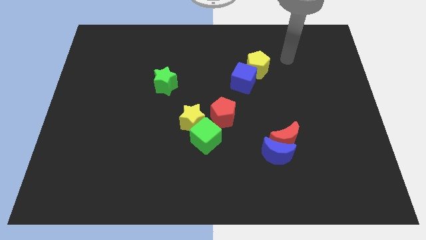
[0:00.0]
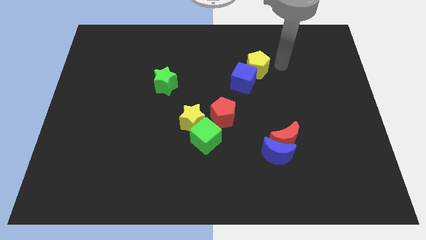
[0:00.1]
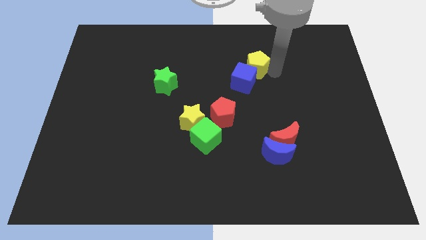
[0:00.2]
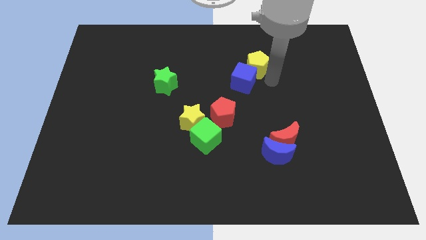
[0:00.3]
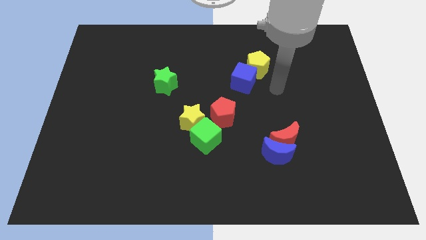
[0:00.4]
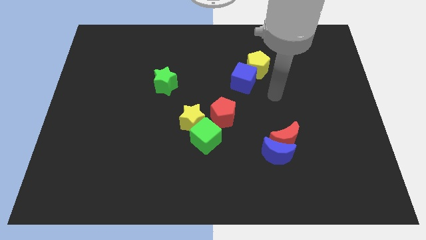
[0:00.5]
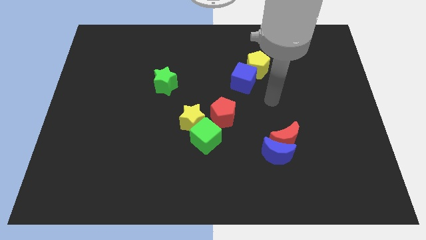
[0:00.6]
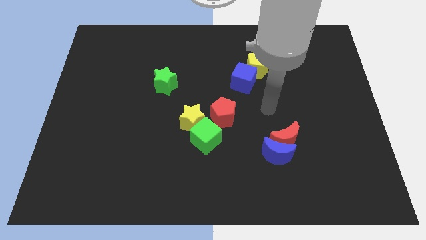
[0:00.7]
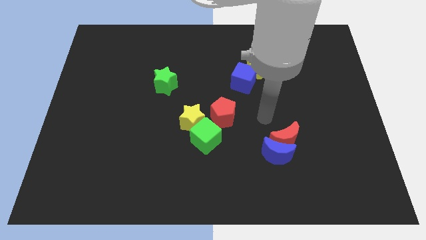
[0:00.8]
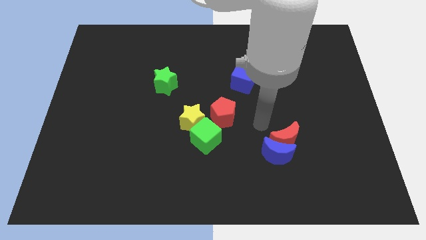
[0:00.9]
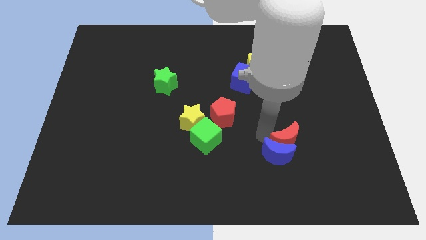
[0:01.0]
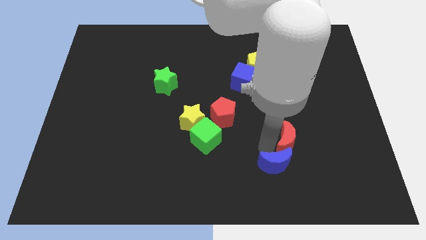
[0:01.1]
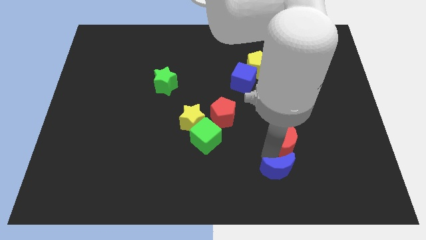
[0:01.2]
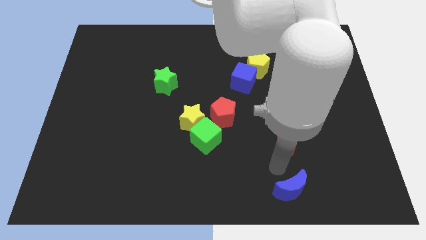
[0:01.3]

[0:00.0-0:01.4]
separate the red moon from the blue moon

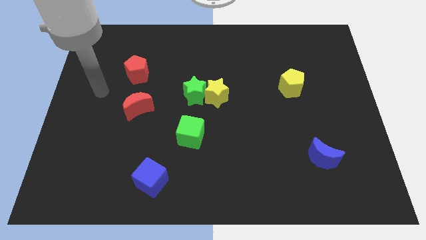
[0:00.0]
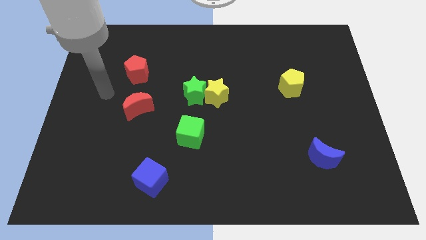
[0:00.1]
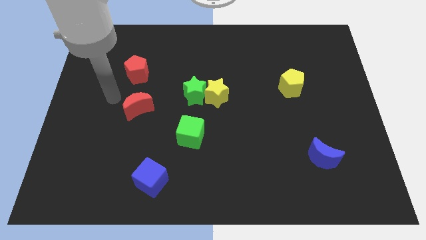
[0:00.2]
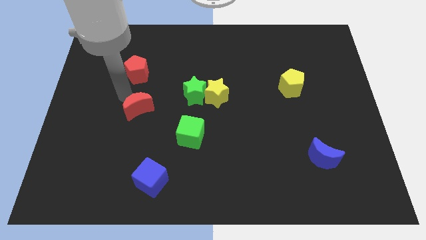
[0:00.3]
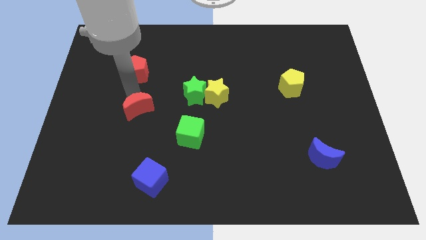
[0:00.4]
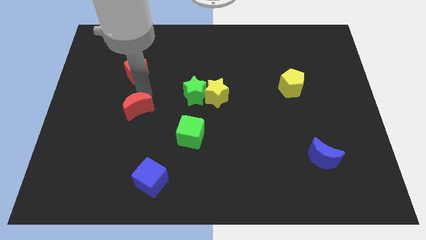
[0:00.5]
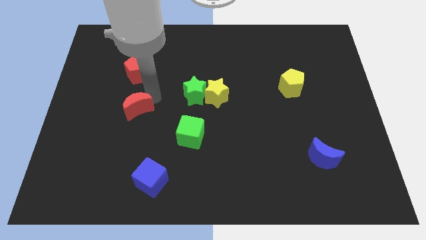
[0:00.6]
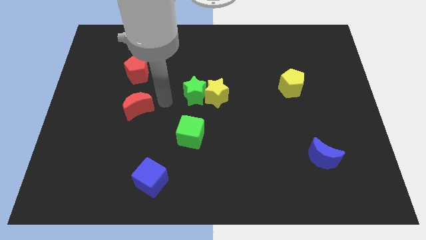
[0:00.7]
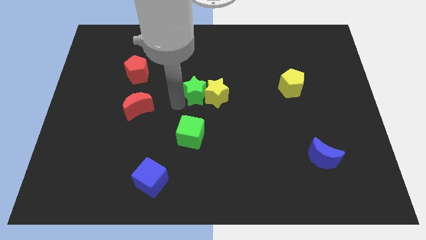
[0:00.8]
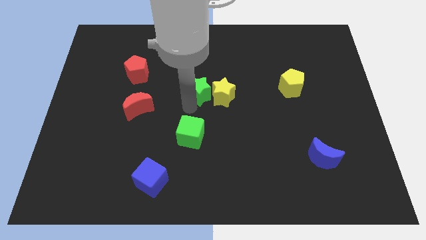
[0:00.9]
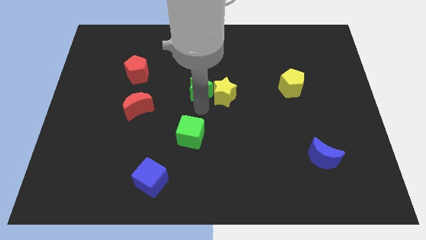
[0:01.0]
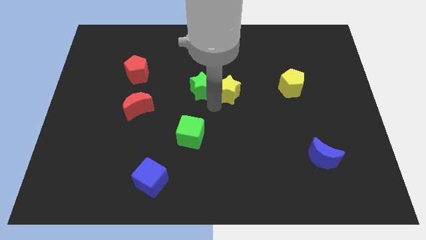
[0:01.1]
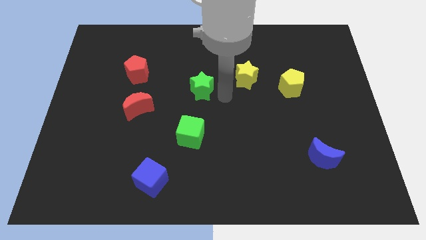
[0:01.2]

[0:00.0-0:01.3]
move the green star away from the yellow star

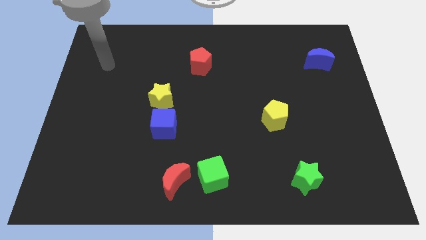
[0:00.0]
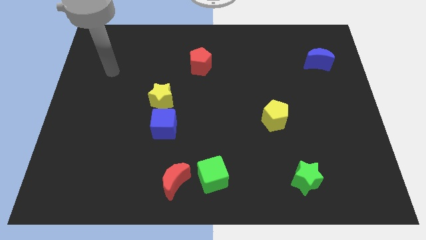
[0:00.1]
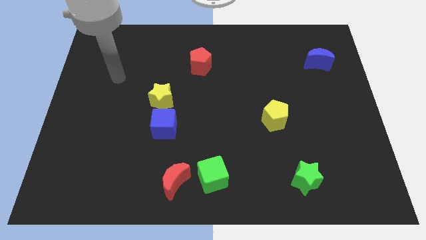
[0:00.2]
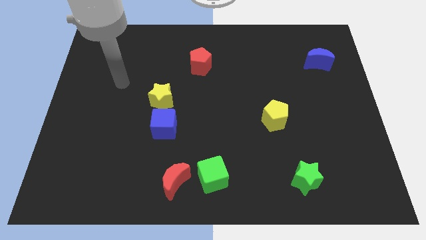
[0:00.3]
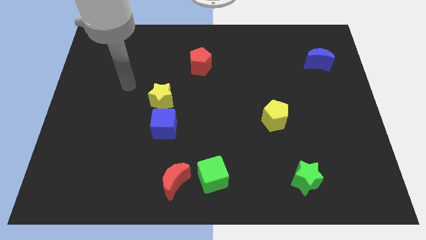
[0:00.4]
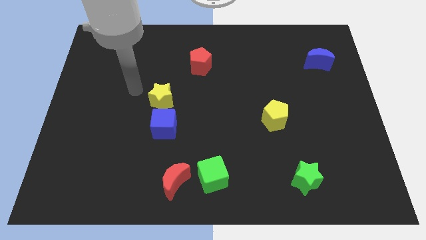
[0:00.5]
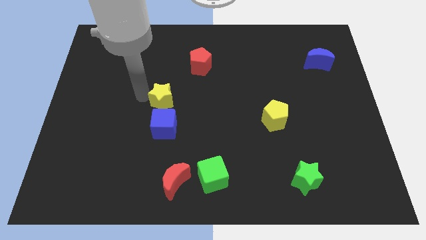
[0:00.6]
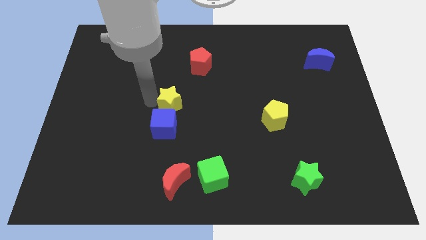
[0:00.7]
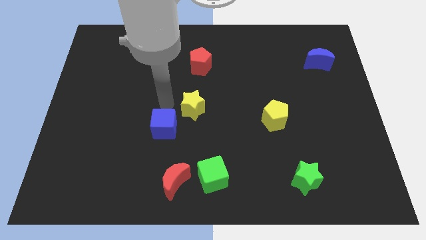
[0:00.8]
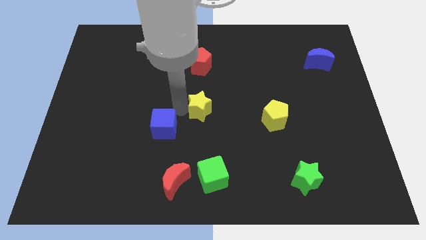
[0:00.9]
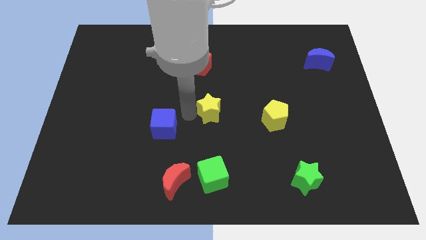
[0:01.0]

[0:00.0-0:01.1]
move the blue cube away from the yellow star

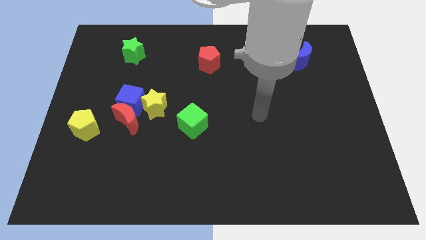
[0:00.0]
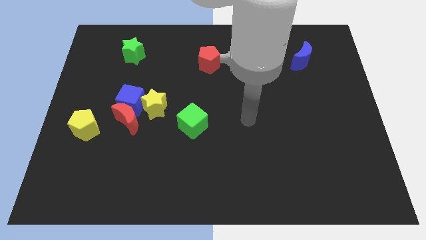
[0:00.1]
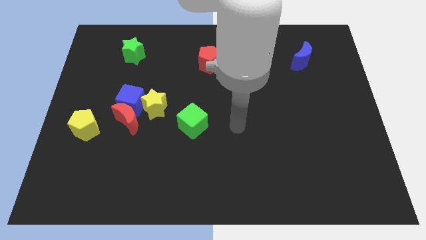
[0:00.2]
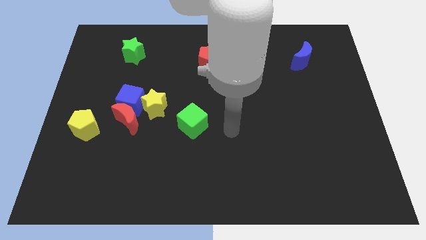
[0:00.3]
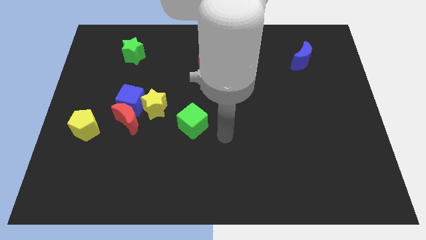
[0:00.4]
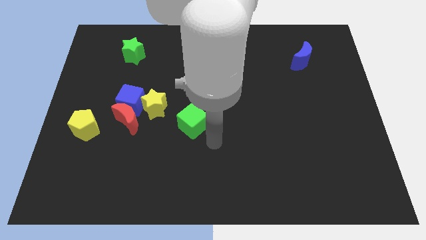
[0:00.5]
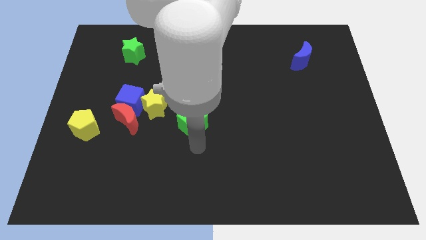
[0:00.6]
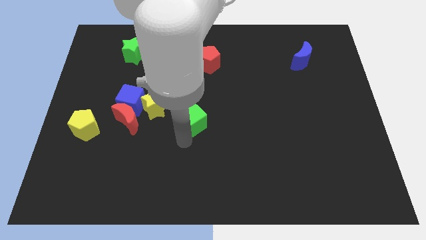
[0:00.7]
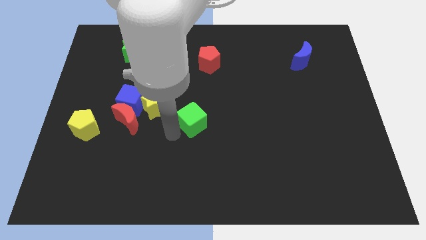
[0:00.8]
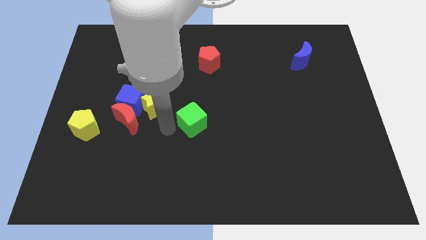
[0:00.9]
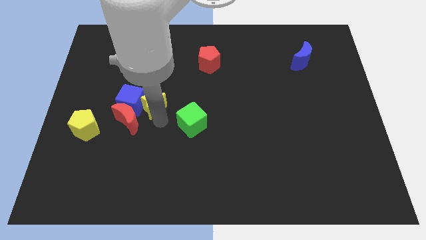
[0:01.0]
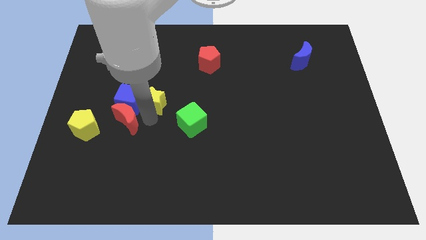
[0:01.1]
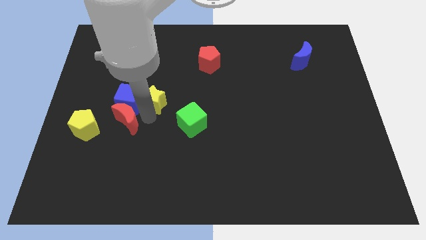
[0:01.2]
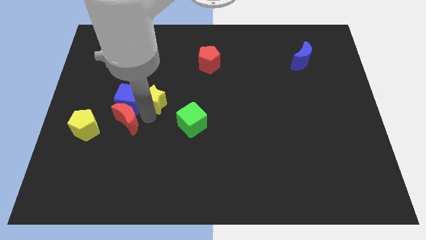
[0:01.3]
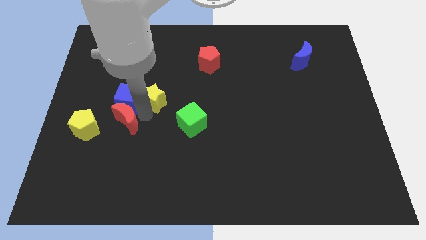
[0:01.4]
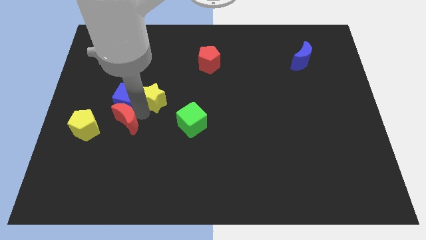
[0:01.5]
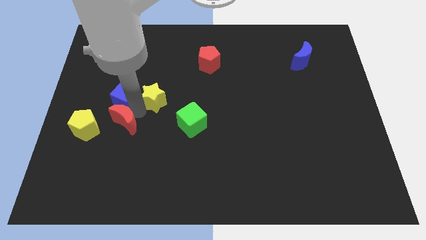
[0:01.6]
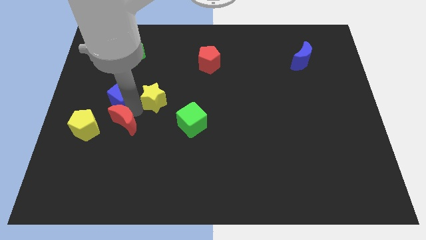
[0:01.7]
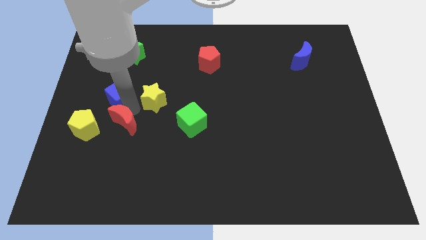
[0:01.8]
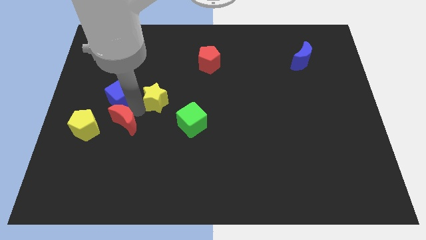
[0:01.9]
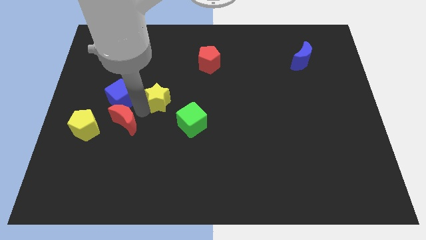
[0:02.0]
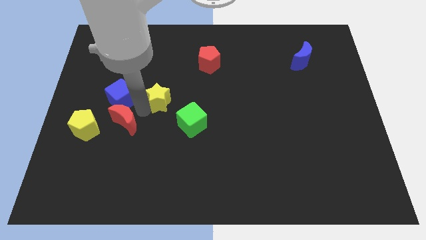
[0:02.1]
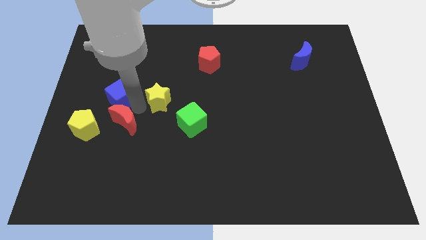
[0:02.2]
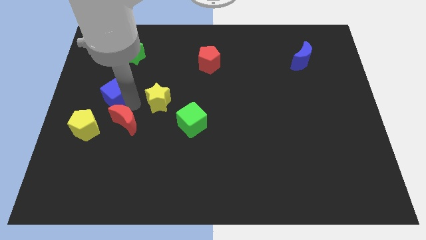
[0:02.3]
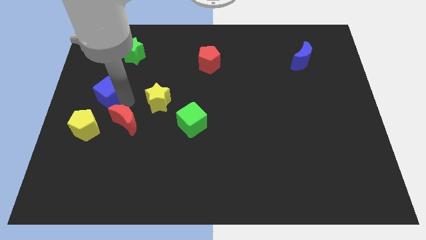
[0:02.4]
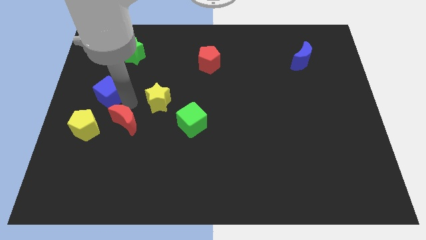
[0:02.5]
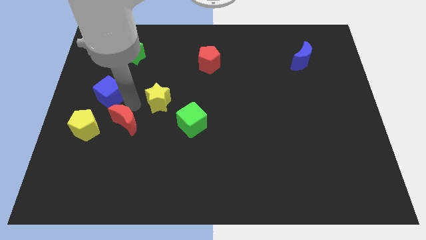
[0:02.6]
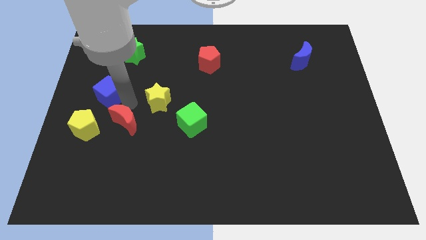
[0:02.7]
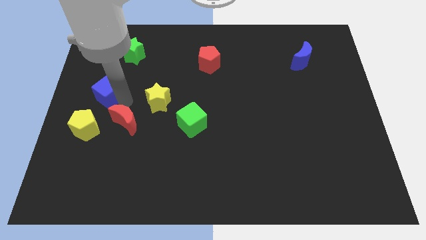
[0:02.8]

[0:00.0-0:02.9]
separate the blue cube from the red moon and yellow star

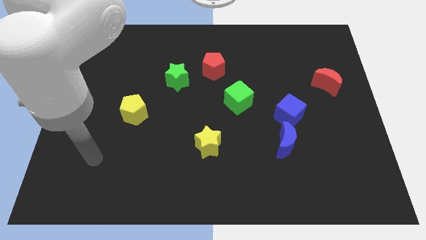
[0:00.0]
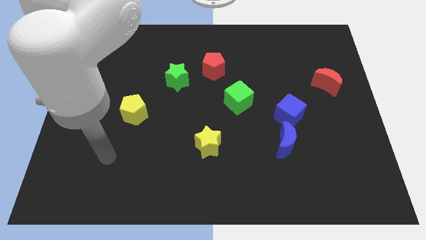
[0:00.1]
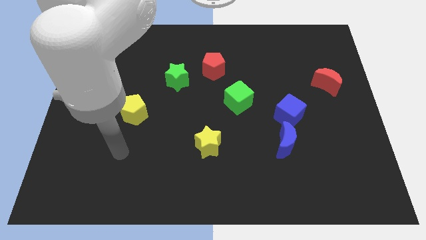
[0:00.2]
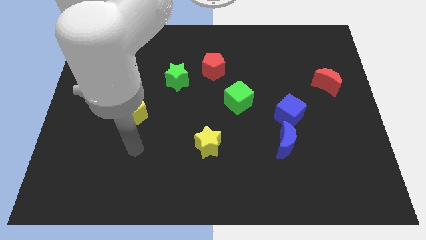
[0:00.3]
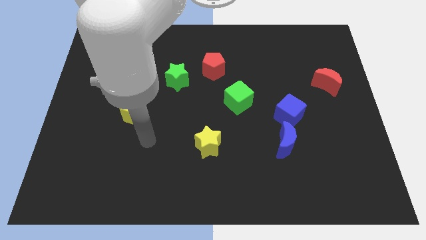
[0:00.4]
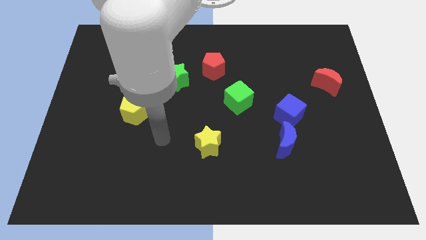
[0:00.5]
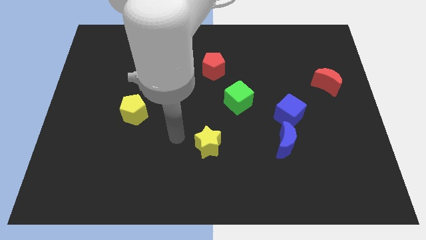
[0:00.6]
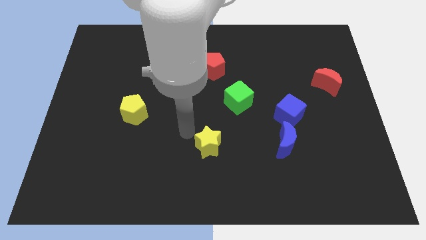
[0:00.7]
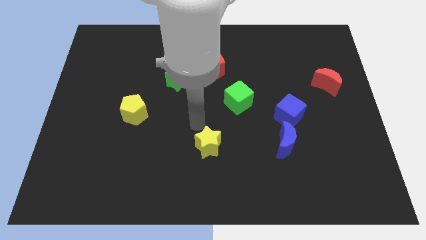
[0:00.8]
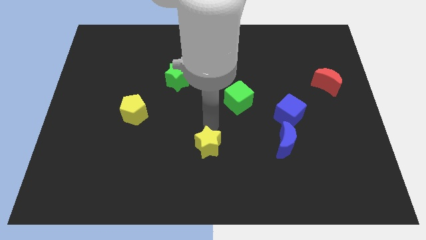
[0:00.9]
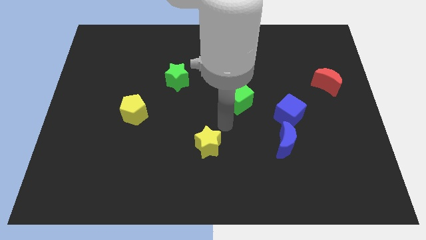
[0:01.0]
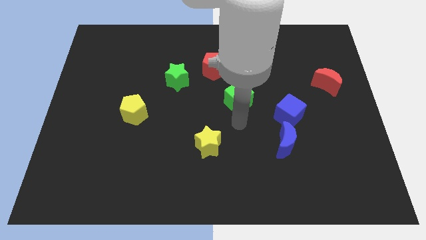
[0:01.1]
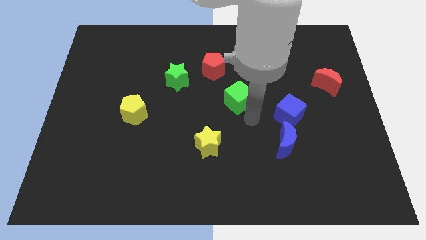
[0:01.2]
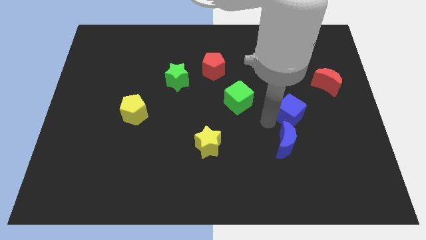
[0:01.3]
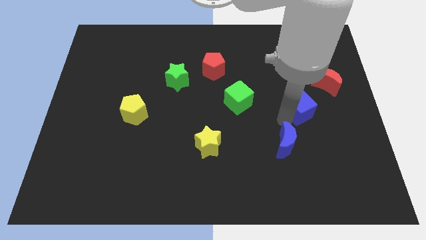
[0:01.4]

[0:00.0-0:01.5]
move the blue moon away from the blue cube

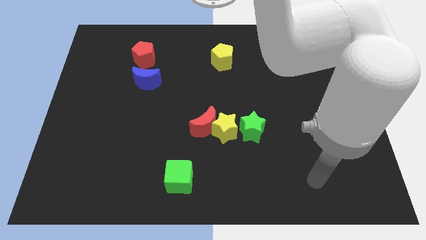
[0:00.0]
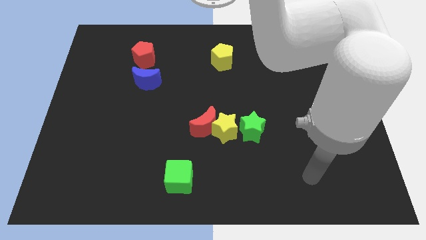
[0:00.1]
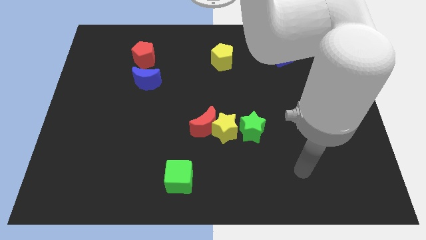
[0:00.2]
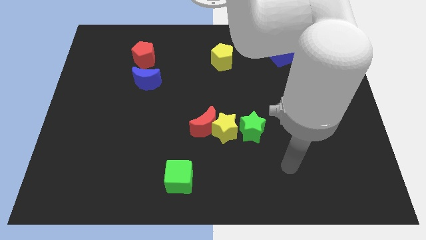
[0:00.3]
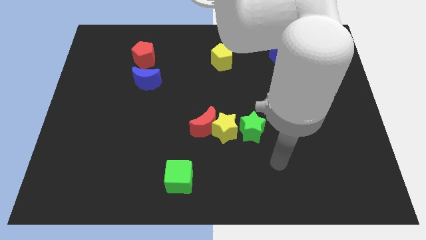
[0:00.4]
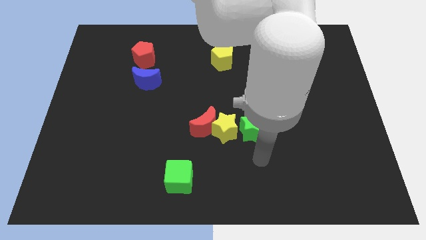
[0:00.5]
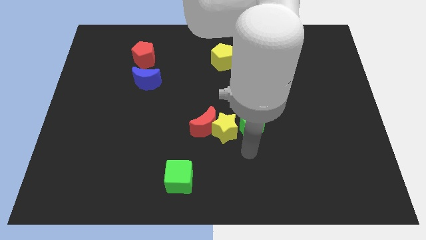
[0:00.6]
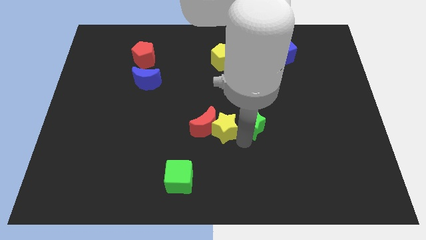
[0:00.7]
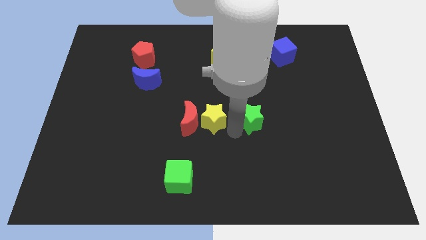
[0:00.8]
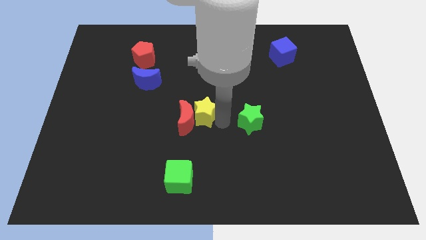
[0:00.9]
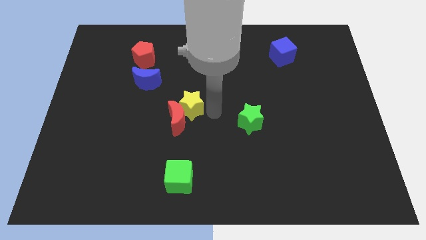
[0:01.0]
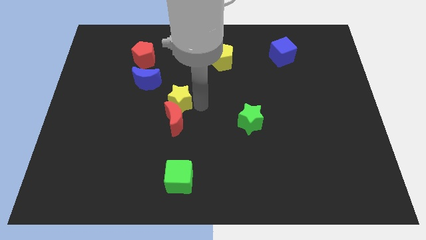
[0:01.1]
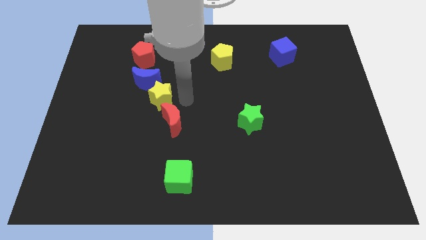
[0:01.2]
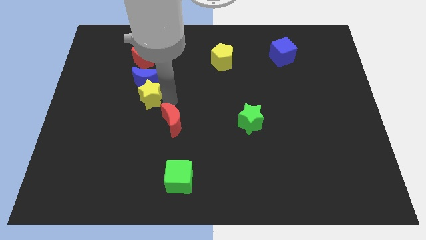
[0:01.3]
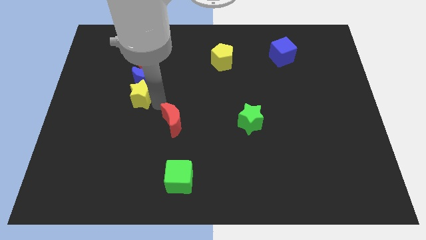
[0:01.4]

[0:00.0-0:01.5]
pull the red moon apart from the yellow star
